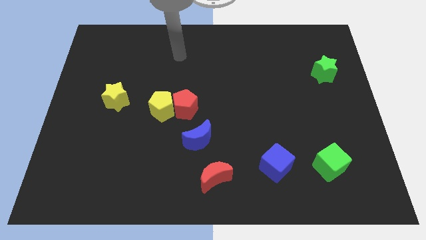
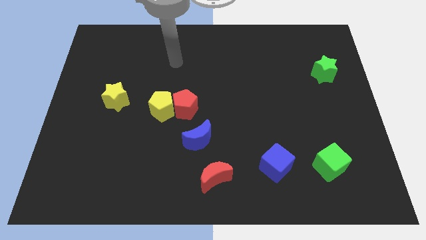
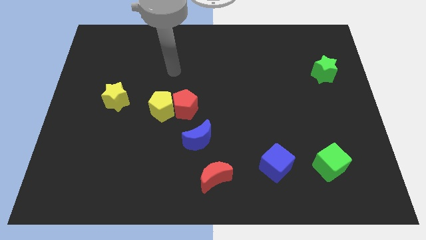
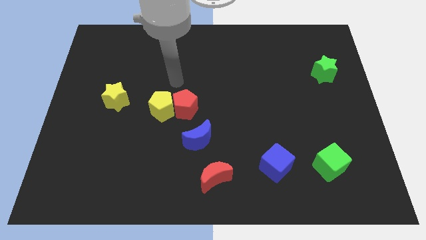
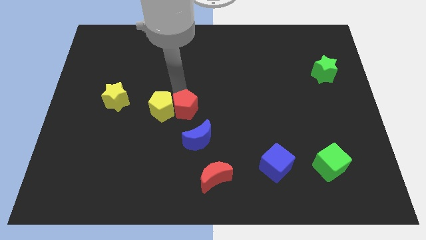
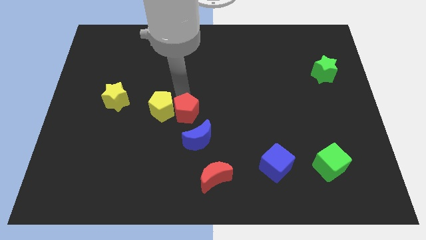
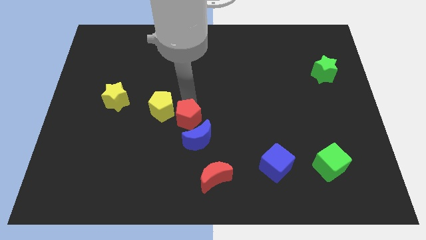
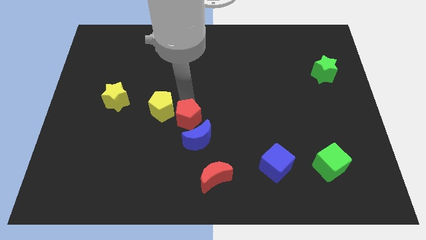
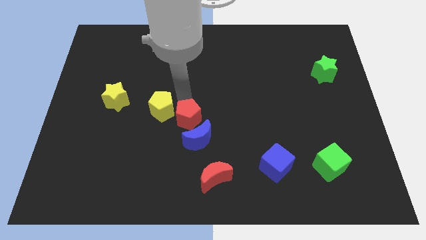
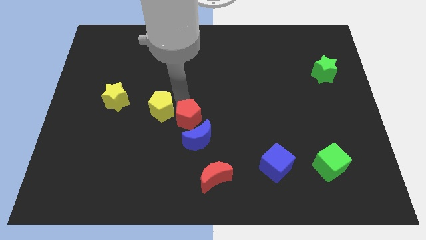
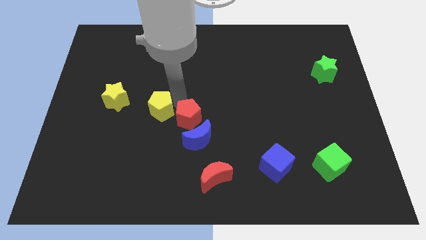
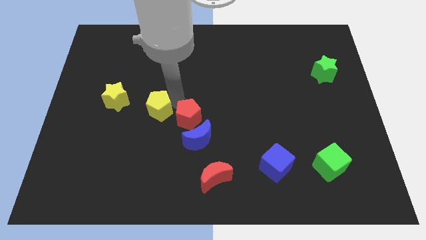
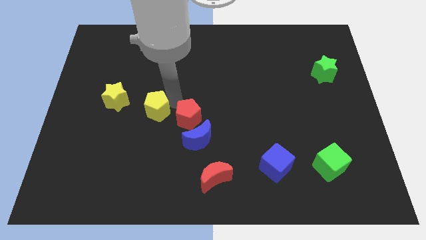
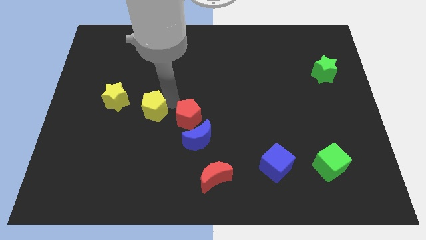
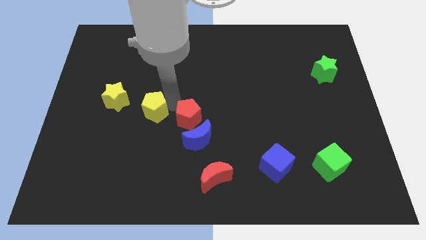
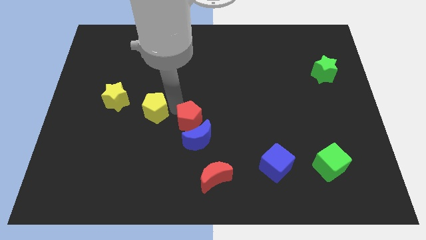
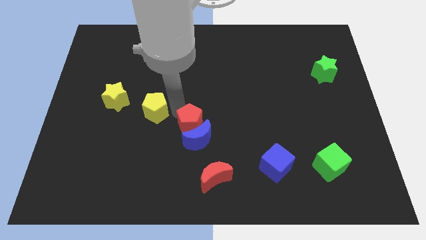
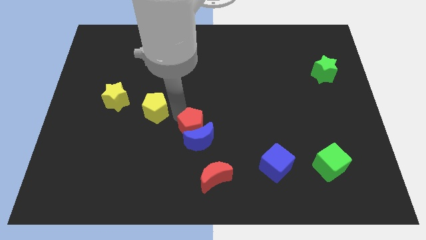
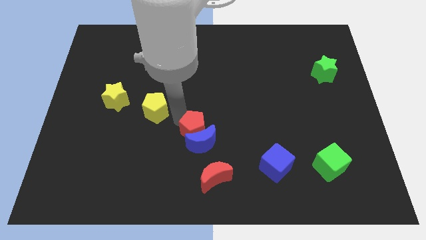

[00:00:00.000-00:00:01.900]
separate the yellow pentagon from the red pentagon

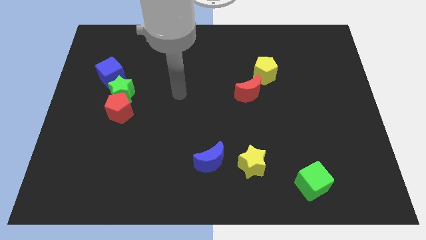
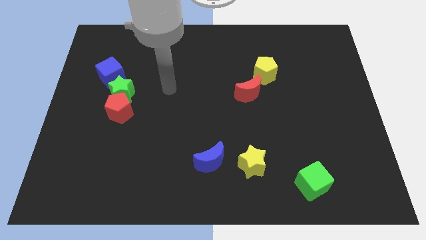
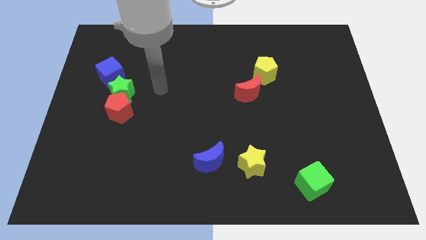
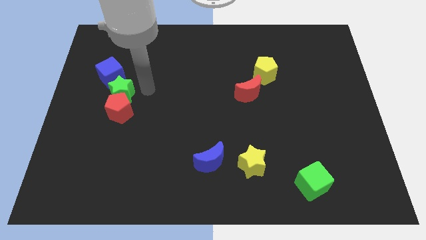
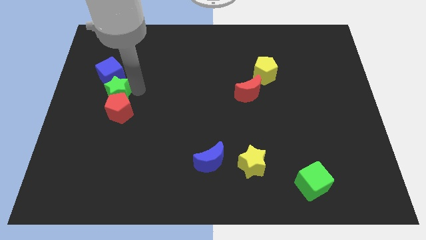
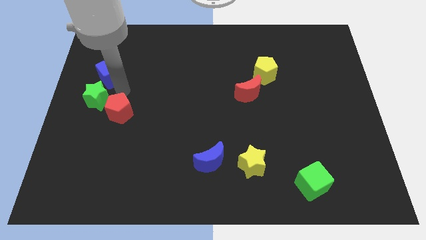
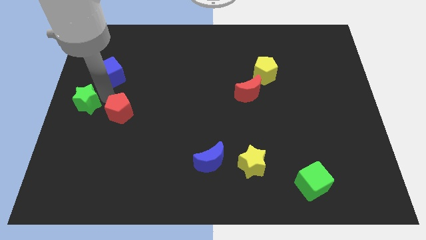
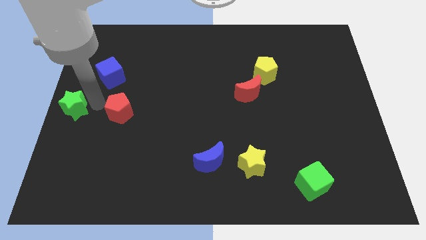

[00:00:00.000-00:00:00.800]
separate the red pentagon from the green star

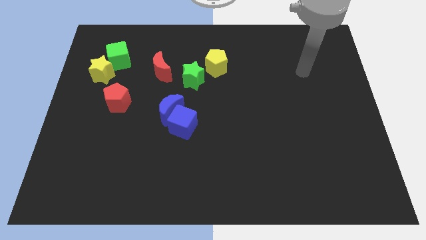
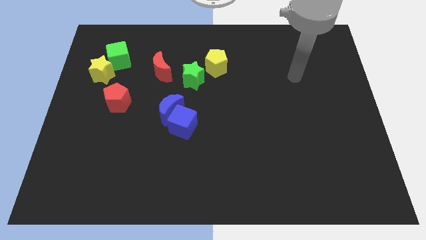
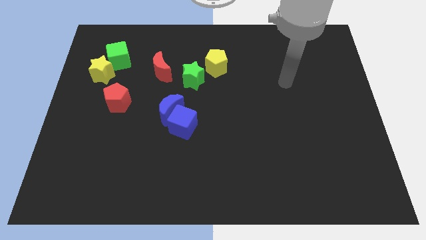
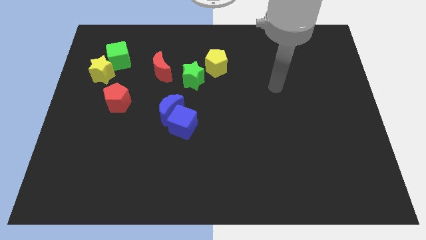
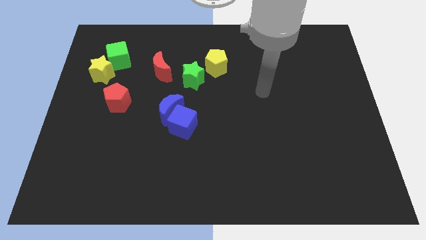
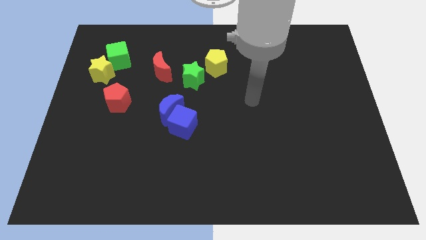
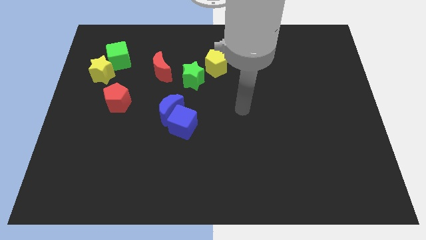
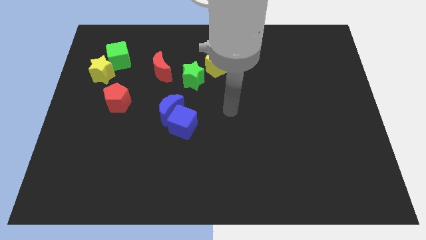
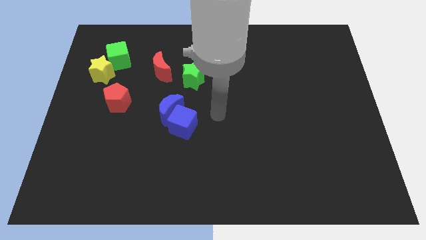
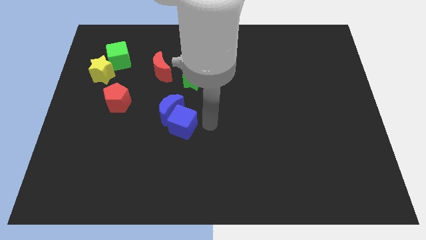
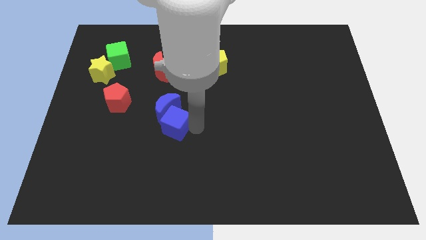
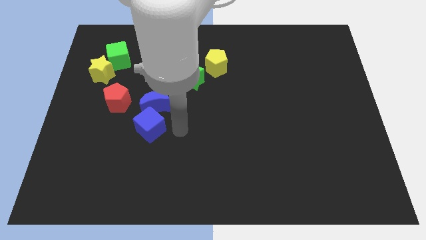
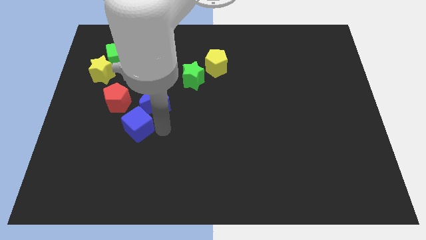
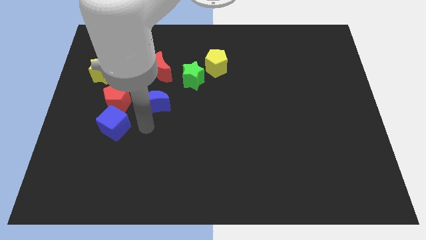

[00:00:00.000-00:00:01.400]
separate the blue moon from the blue cube

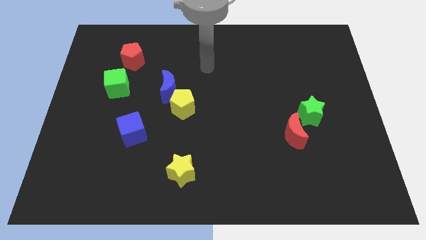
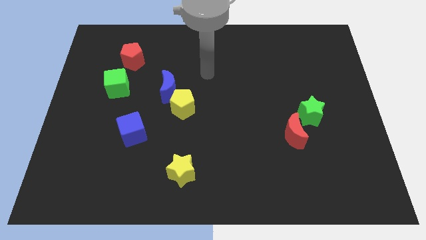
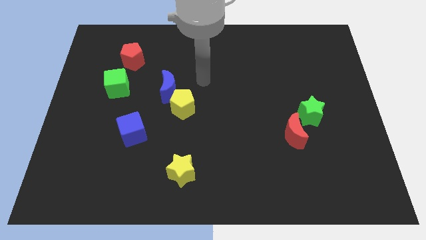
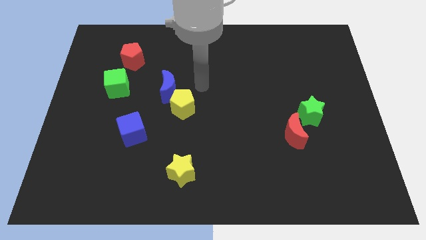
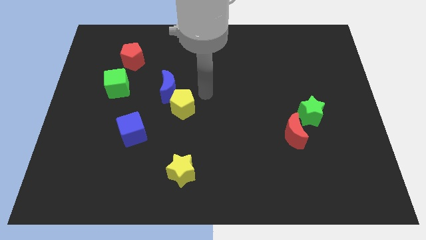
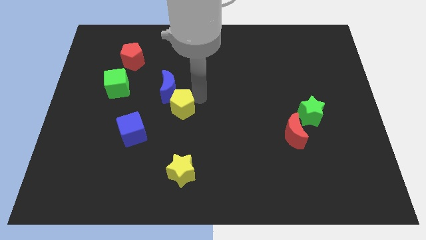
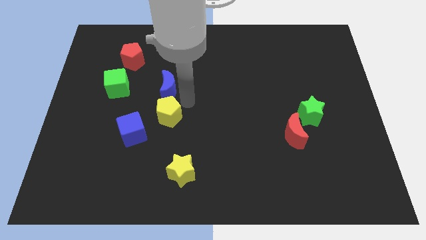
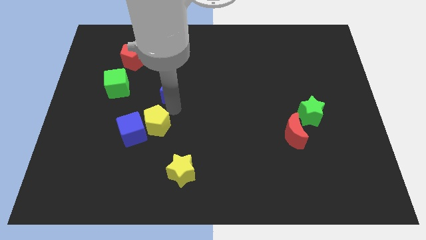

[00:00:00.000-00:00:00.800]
separate the blue moon from the yellow pentagon

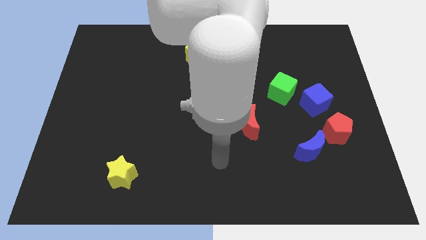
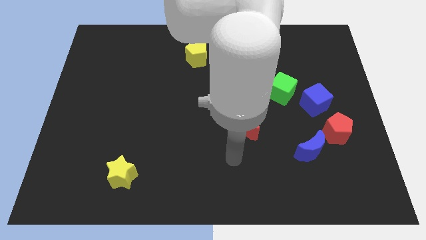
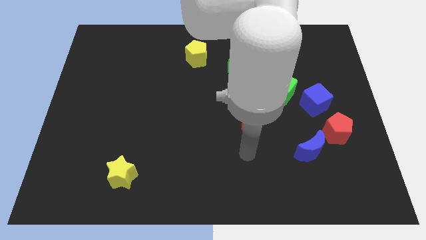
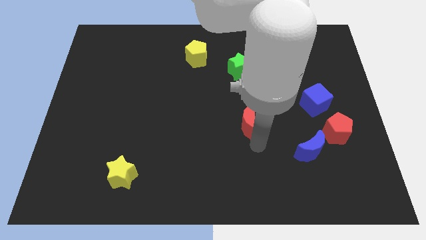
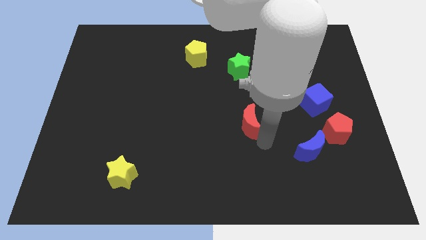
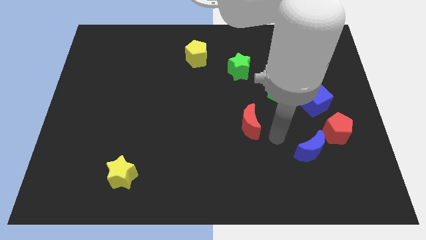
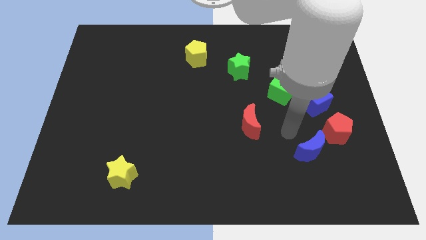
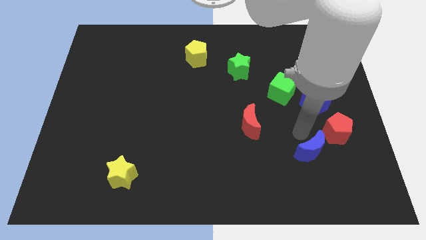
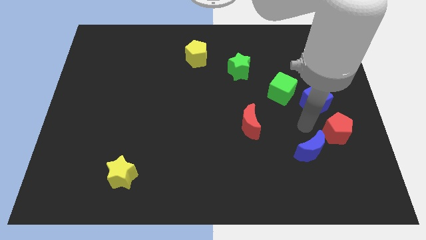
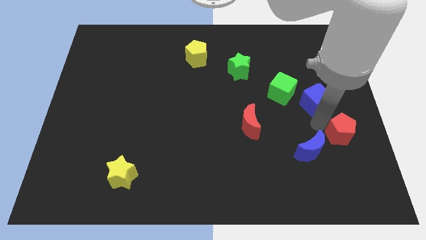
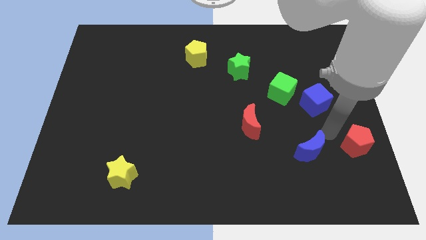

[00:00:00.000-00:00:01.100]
move the blue moon away from the red pentagon

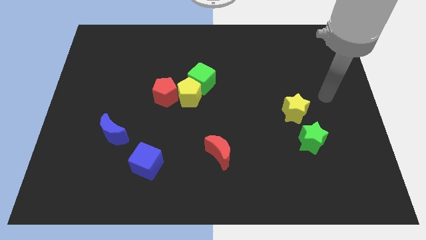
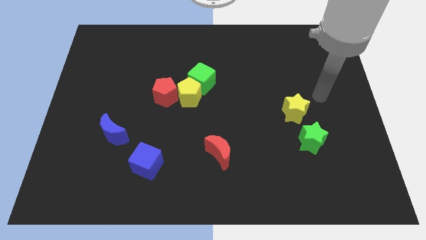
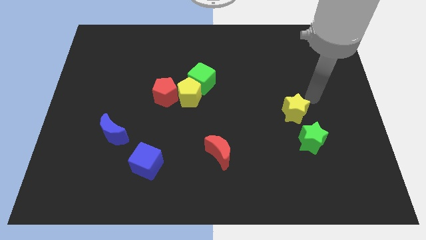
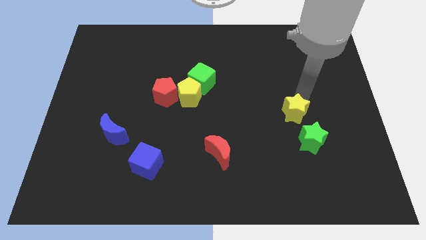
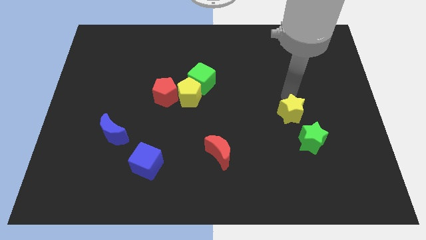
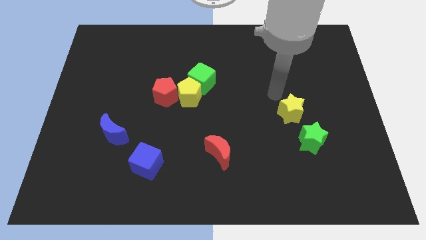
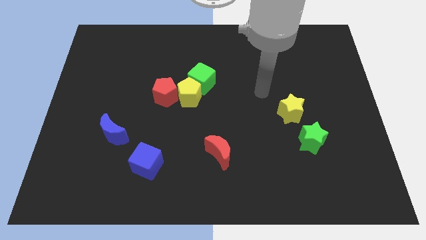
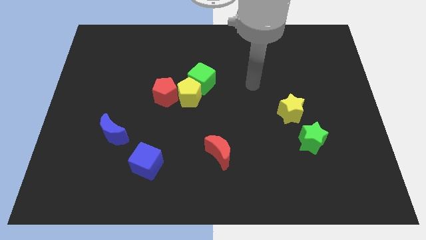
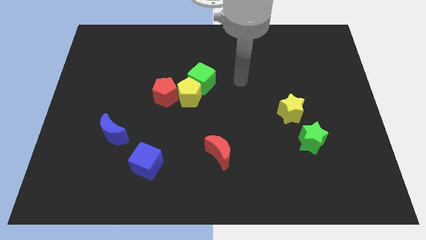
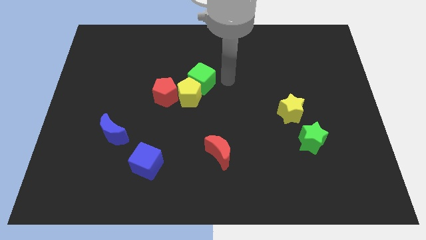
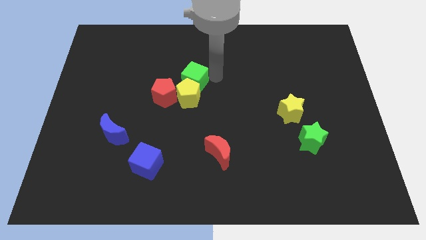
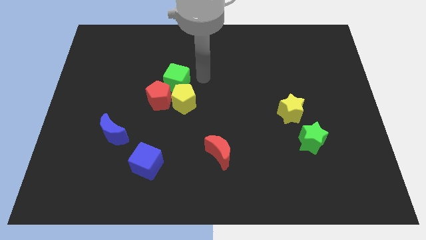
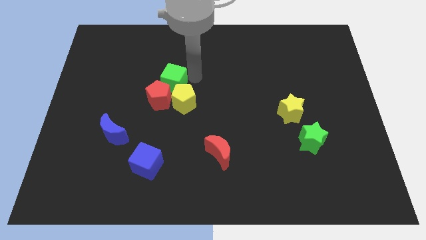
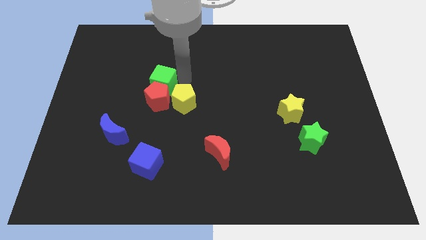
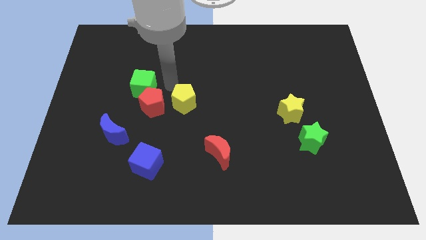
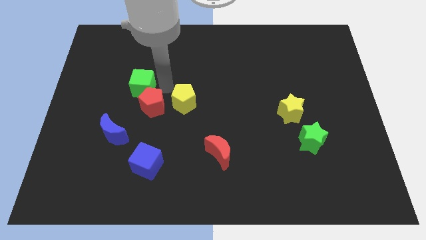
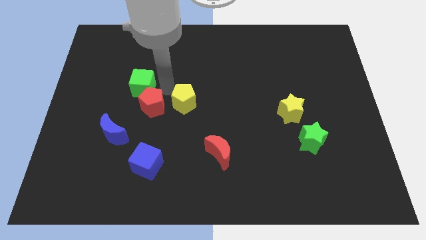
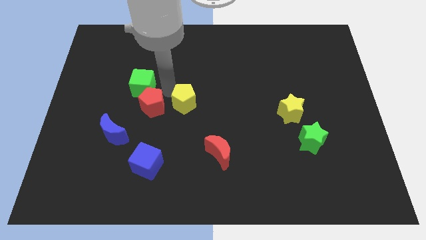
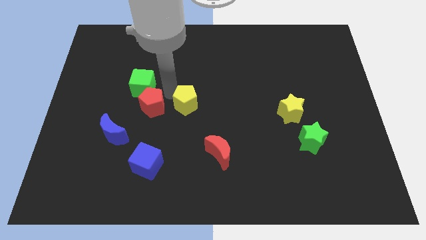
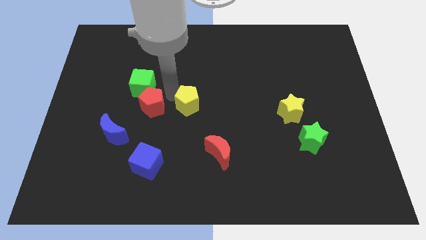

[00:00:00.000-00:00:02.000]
move the yellow pentagon away from the green cube and red pentagon

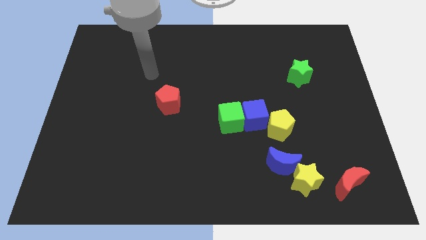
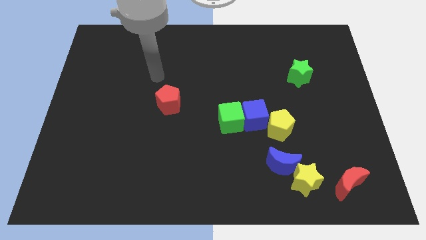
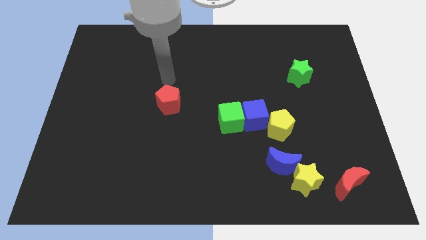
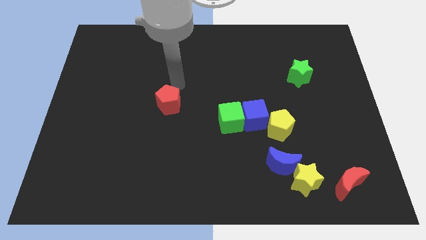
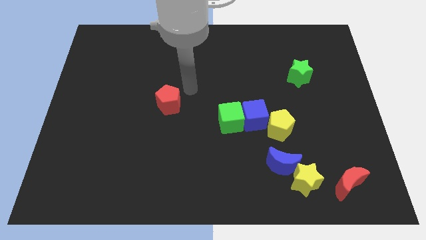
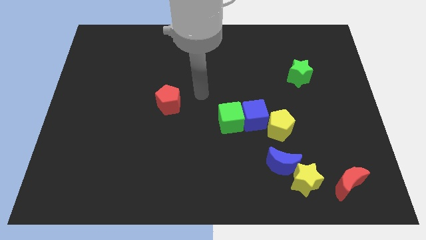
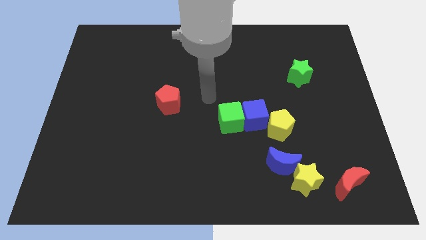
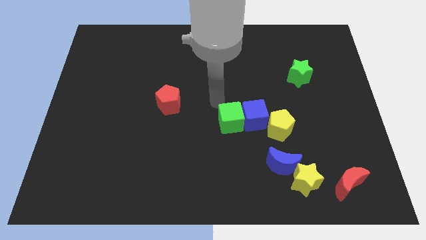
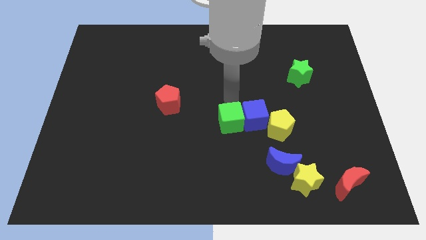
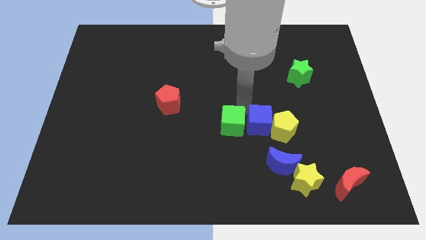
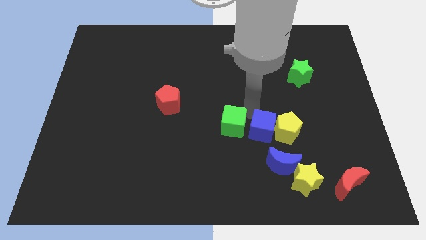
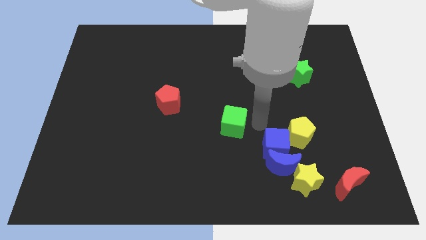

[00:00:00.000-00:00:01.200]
move the green cube away from the blue cube
